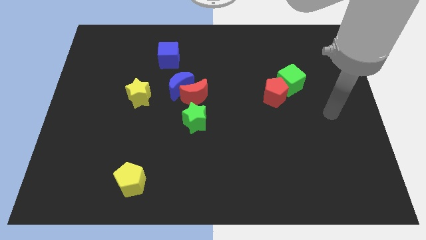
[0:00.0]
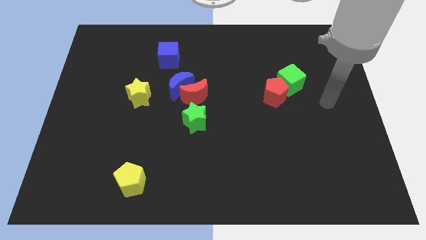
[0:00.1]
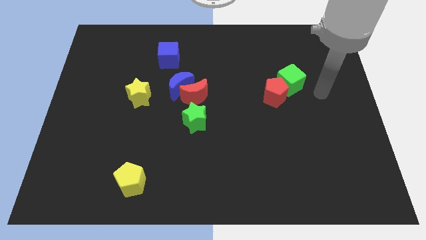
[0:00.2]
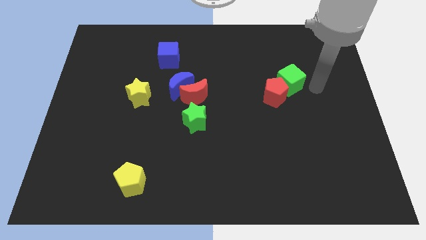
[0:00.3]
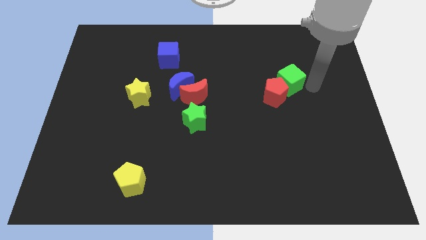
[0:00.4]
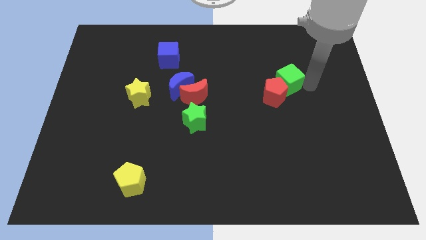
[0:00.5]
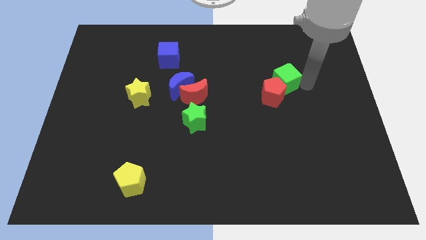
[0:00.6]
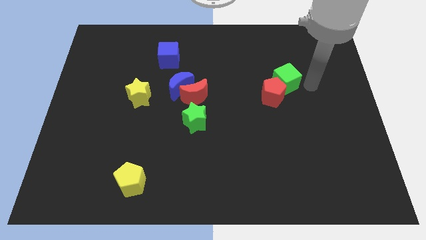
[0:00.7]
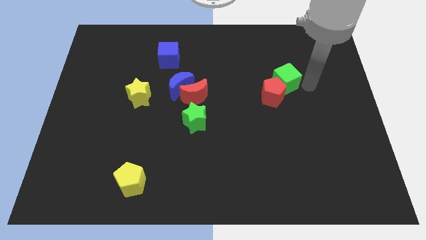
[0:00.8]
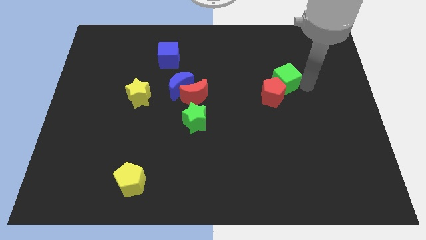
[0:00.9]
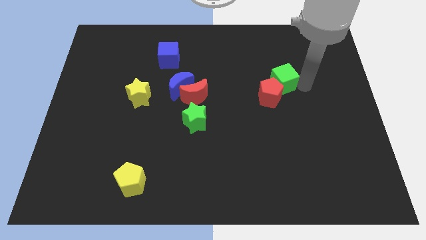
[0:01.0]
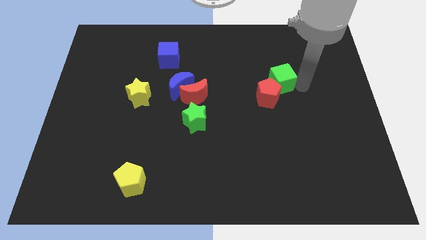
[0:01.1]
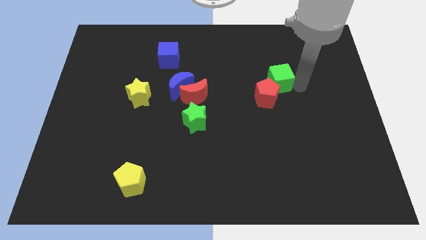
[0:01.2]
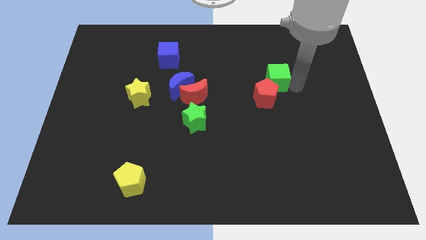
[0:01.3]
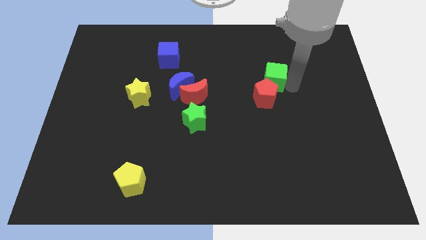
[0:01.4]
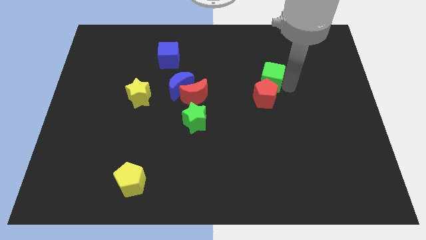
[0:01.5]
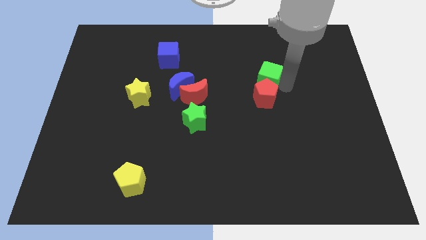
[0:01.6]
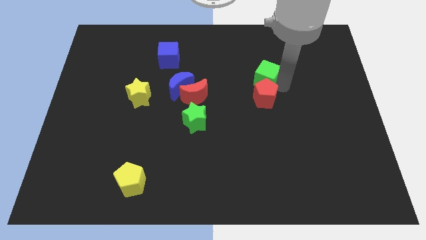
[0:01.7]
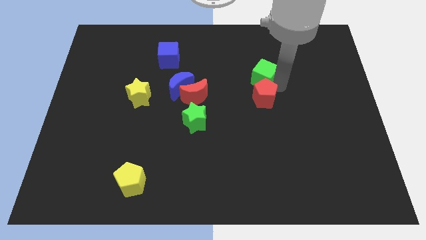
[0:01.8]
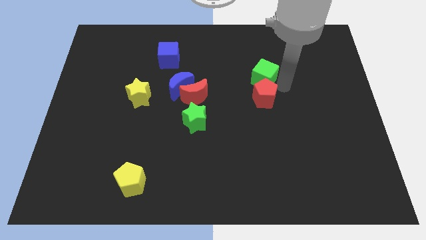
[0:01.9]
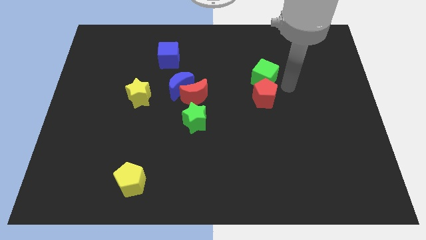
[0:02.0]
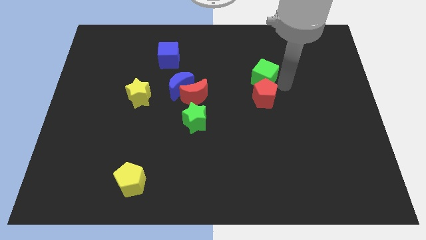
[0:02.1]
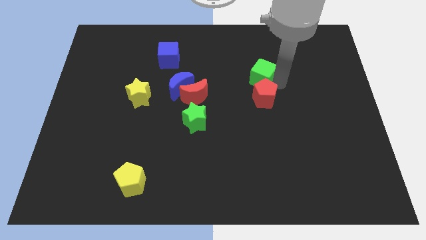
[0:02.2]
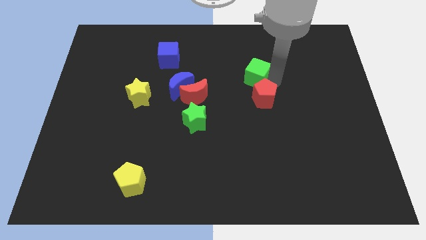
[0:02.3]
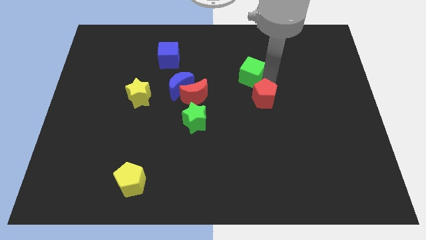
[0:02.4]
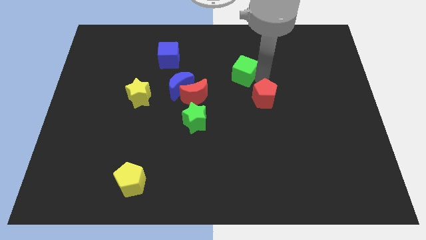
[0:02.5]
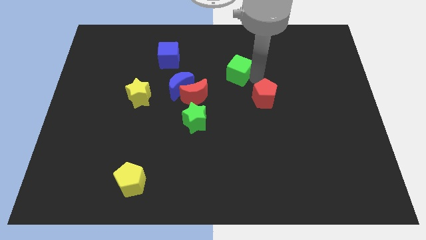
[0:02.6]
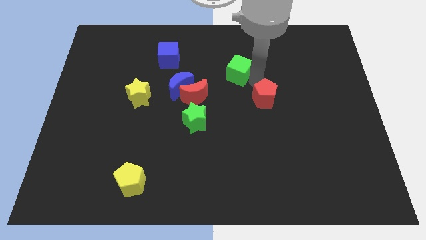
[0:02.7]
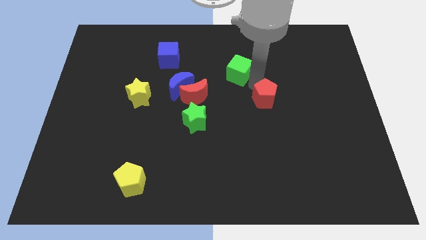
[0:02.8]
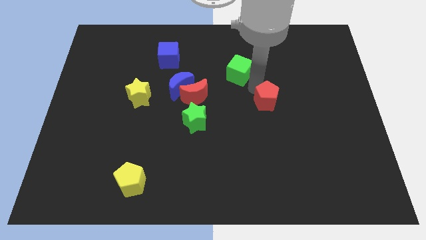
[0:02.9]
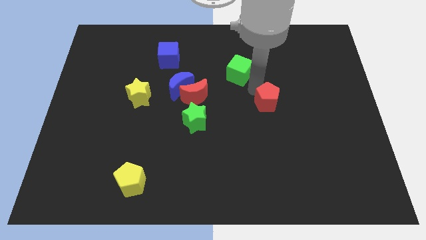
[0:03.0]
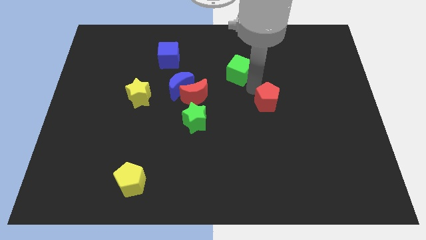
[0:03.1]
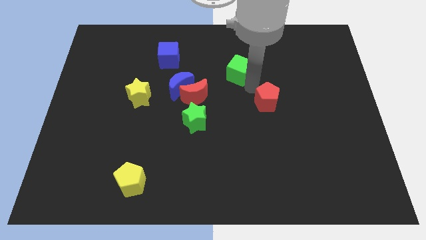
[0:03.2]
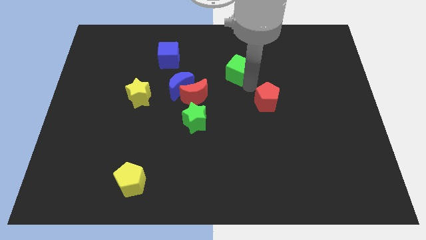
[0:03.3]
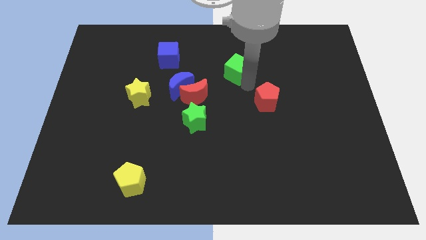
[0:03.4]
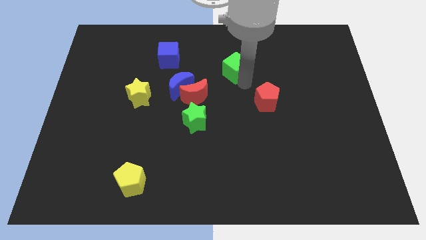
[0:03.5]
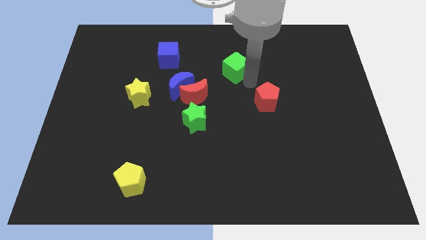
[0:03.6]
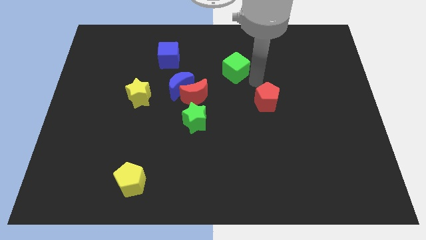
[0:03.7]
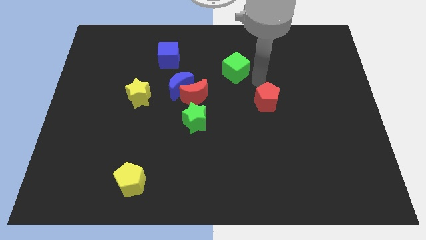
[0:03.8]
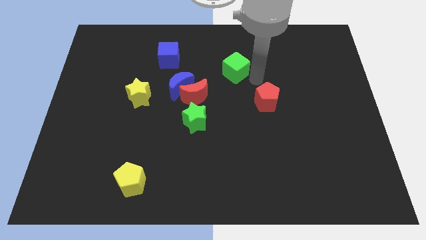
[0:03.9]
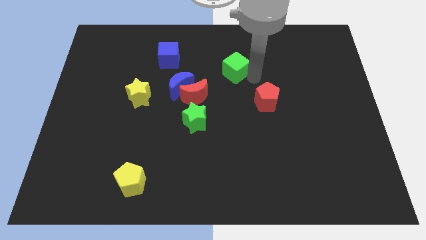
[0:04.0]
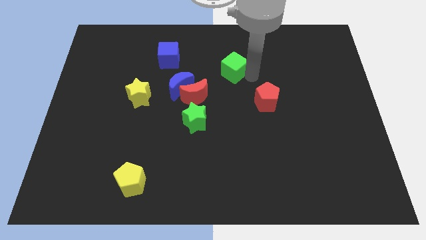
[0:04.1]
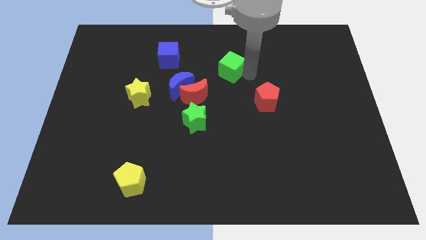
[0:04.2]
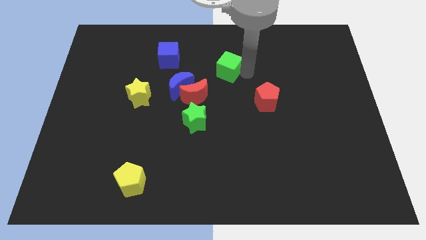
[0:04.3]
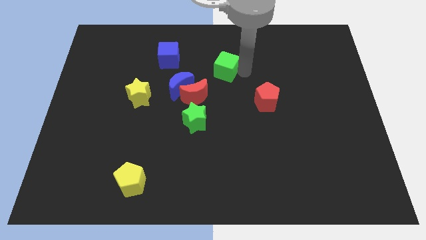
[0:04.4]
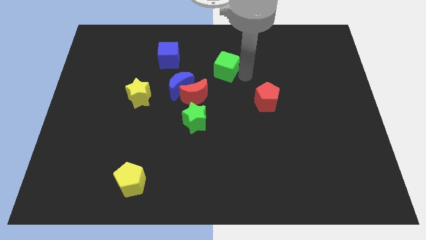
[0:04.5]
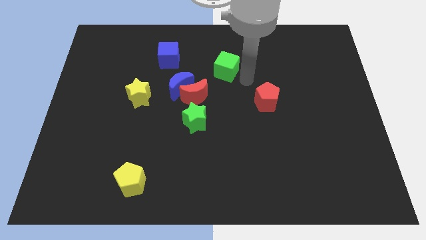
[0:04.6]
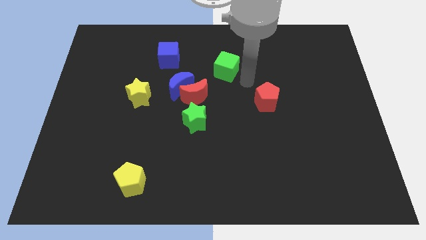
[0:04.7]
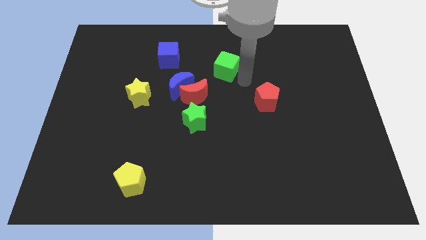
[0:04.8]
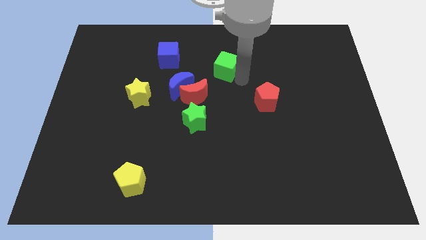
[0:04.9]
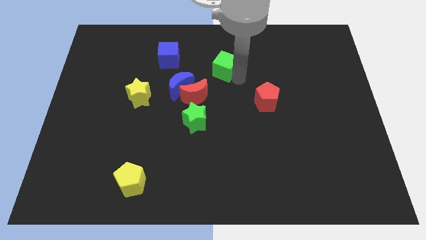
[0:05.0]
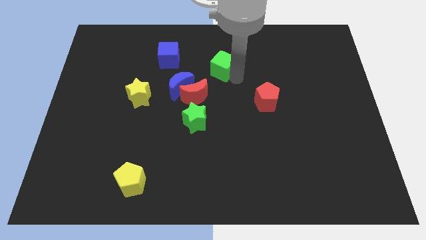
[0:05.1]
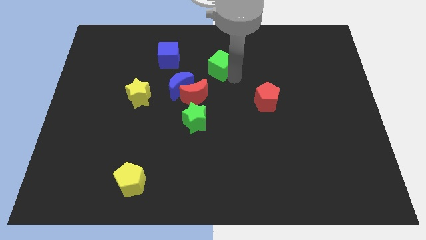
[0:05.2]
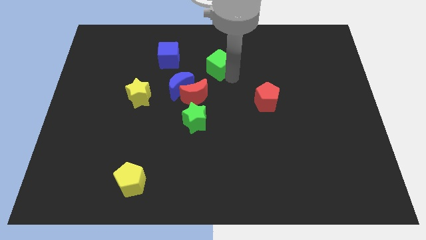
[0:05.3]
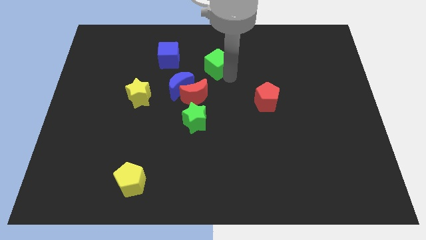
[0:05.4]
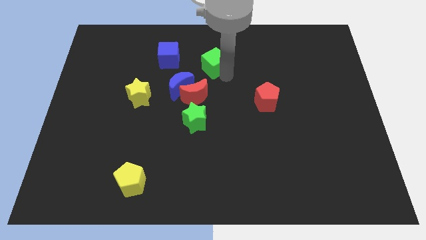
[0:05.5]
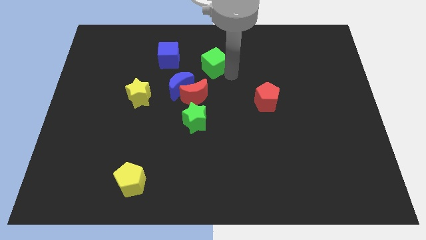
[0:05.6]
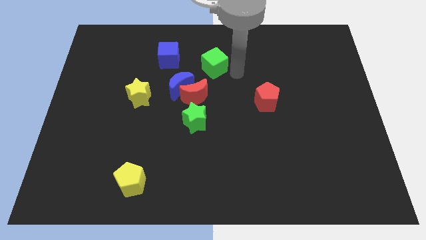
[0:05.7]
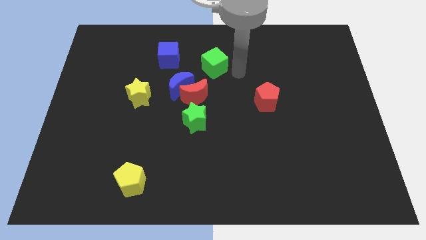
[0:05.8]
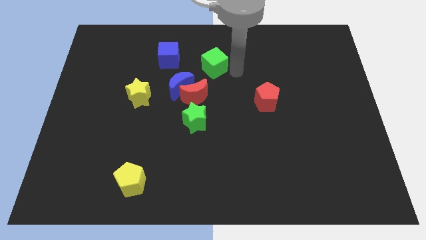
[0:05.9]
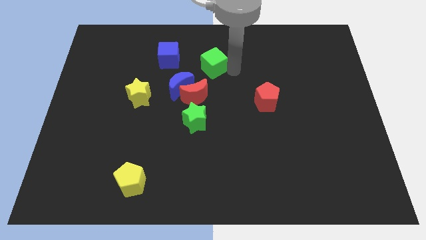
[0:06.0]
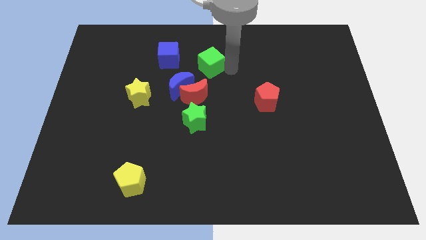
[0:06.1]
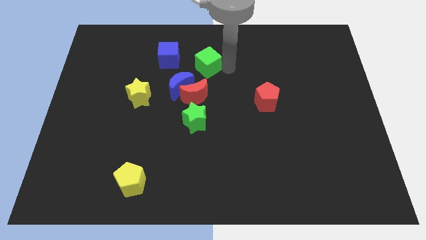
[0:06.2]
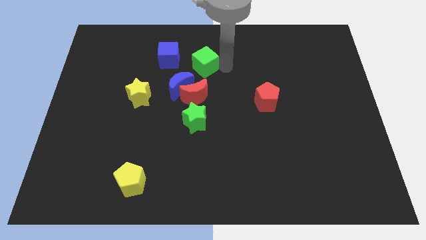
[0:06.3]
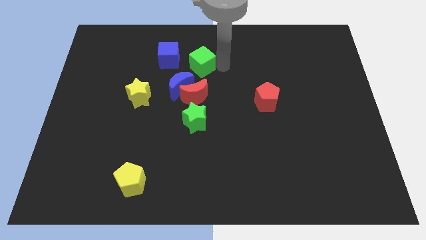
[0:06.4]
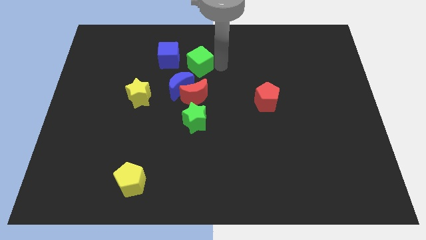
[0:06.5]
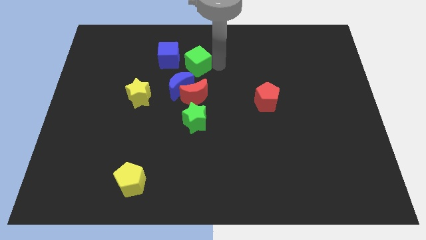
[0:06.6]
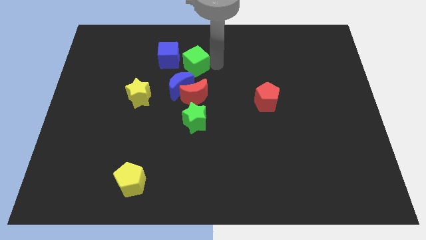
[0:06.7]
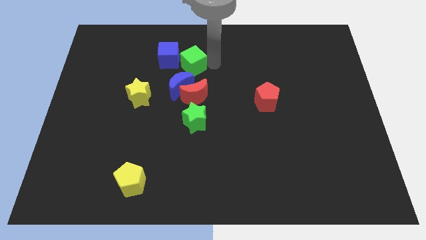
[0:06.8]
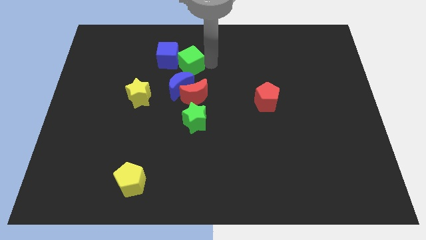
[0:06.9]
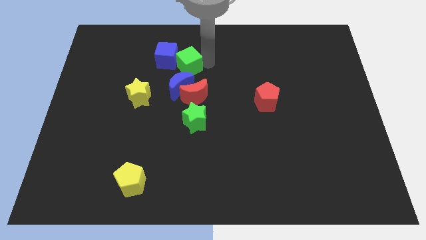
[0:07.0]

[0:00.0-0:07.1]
push the green cube to the blue cube
